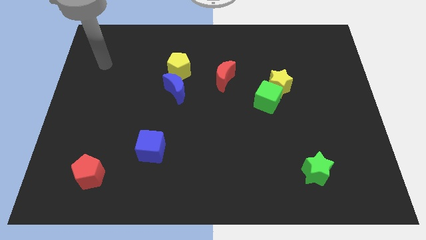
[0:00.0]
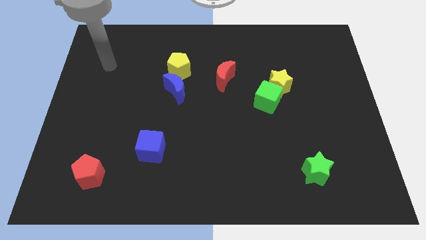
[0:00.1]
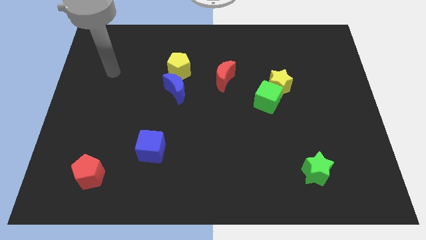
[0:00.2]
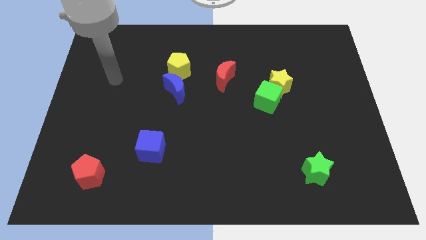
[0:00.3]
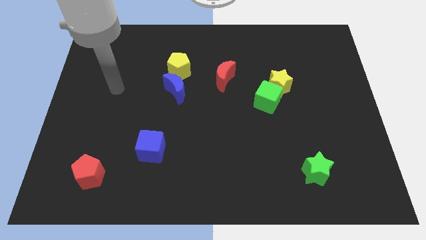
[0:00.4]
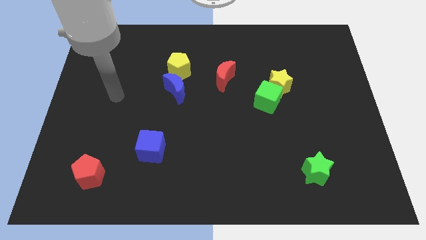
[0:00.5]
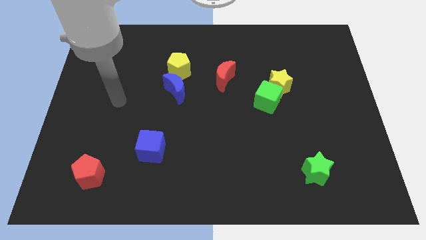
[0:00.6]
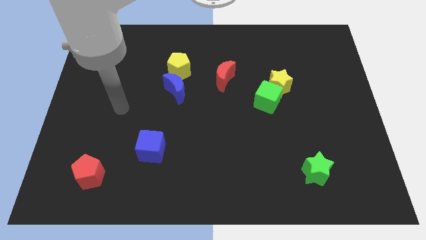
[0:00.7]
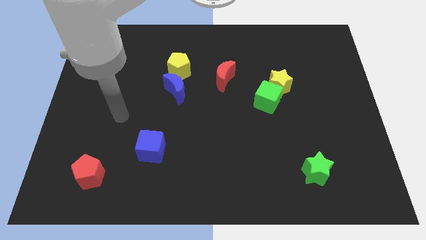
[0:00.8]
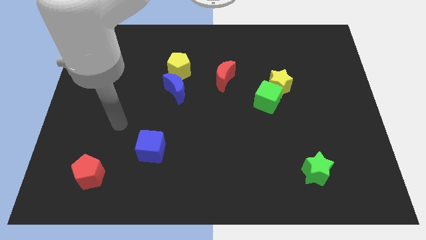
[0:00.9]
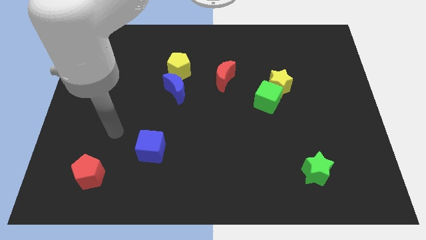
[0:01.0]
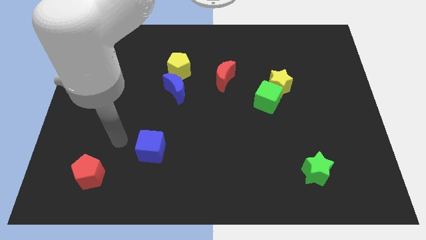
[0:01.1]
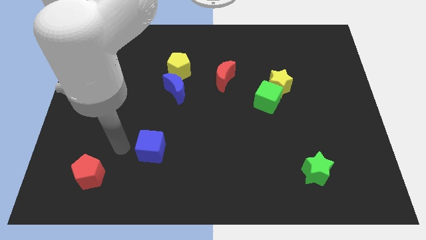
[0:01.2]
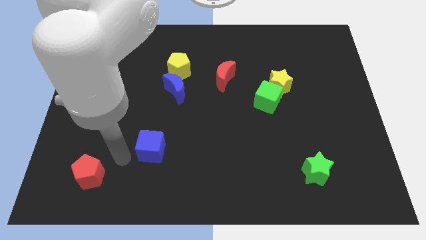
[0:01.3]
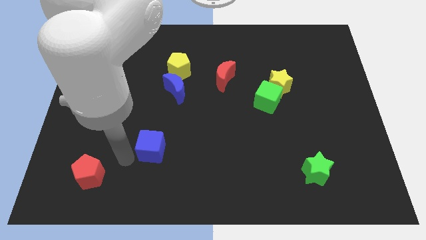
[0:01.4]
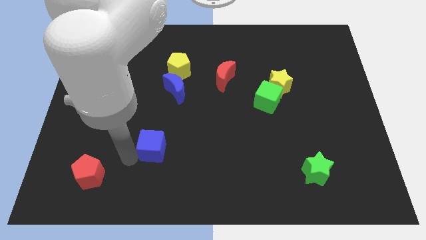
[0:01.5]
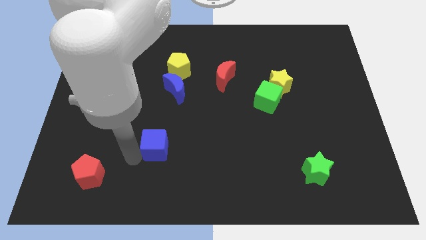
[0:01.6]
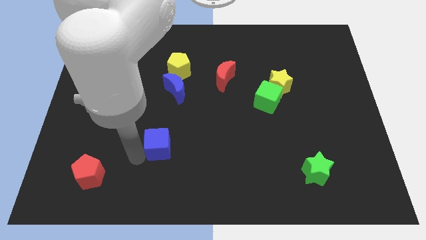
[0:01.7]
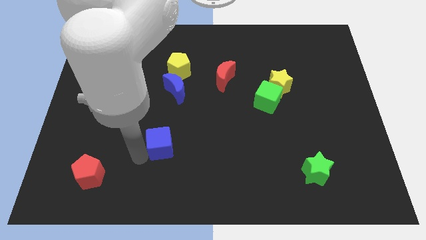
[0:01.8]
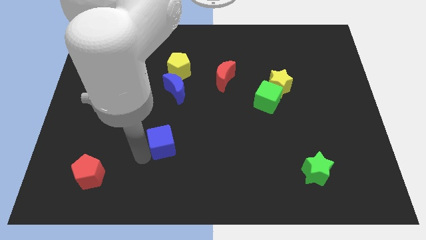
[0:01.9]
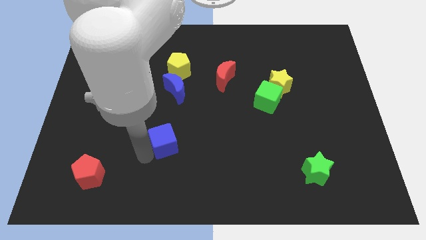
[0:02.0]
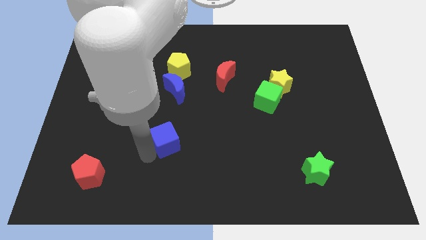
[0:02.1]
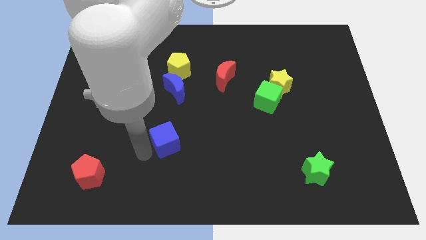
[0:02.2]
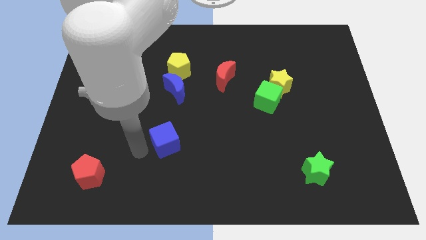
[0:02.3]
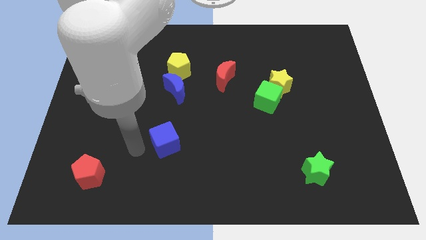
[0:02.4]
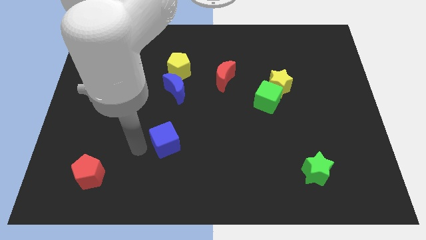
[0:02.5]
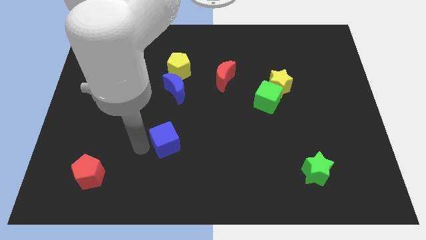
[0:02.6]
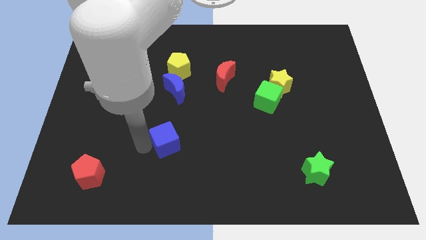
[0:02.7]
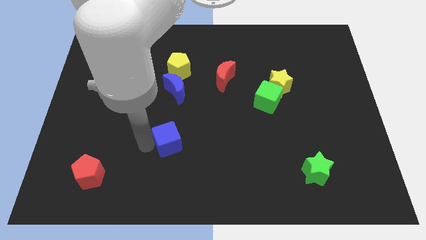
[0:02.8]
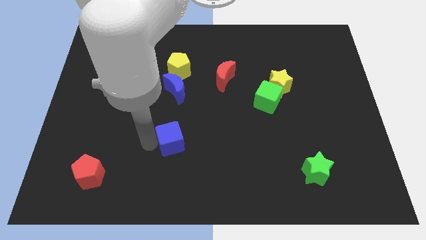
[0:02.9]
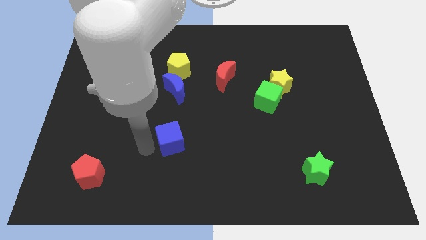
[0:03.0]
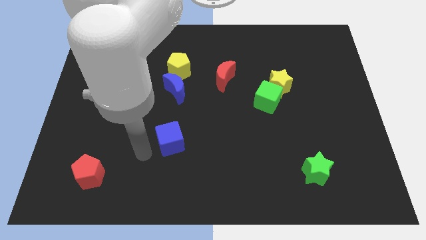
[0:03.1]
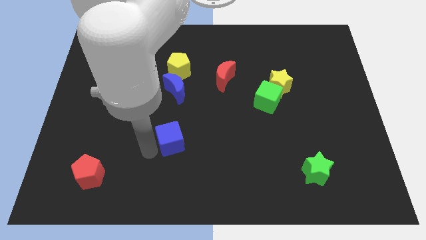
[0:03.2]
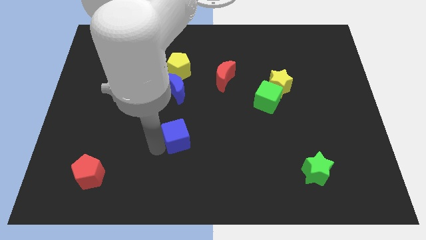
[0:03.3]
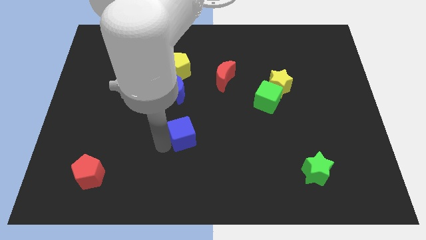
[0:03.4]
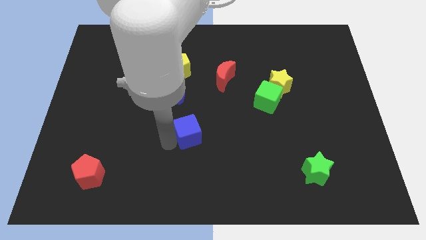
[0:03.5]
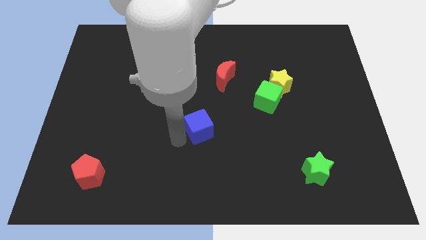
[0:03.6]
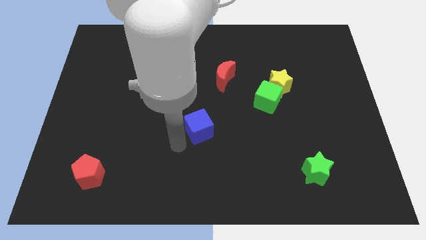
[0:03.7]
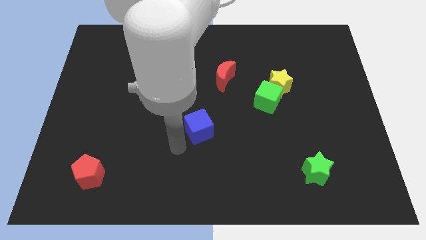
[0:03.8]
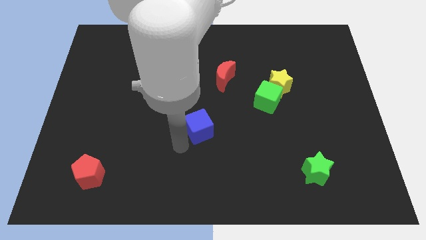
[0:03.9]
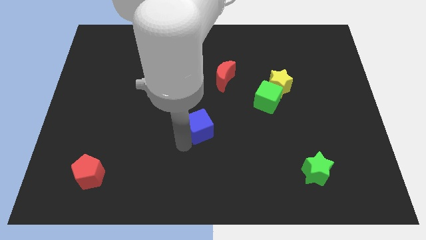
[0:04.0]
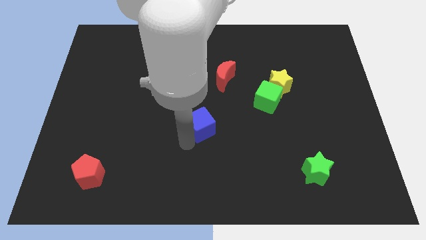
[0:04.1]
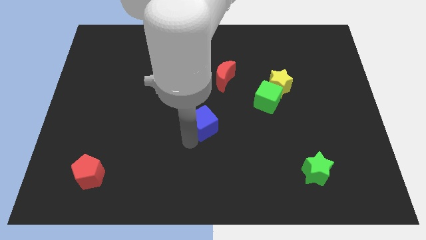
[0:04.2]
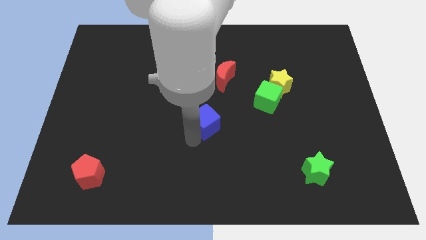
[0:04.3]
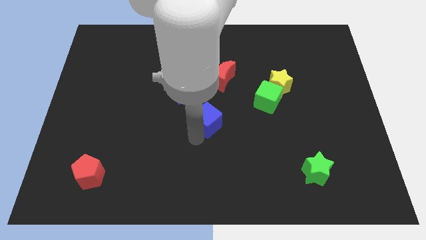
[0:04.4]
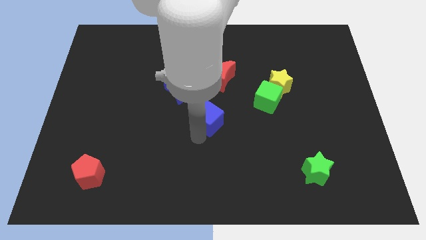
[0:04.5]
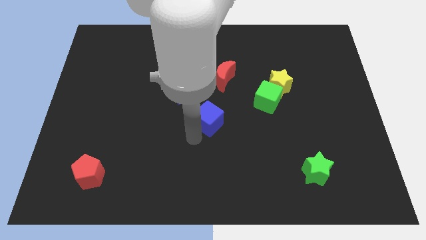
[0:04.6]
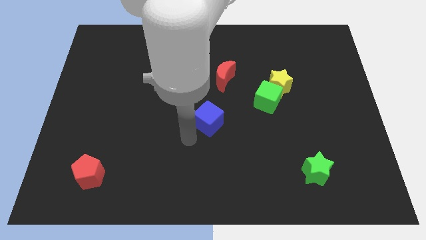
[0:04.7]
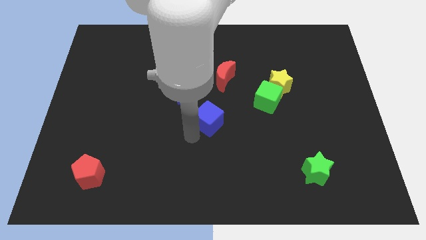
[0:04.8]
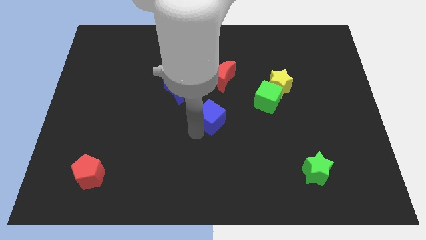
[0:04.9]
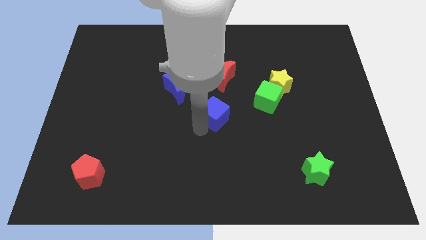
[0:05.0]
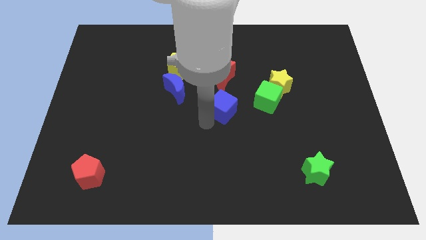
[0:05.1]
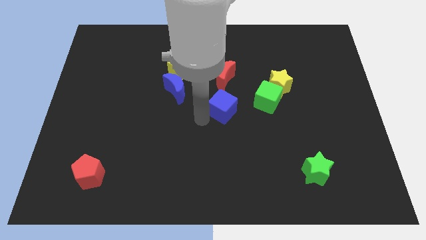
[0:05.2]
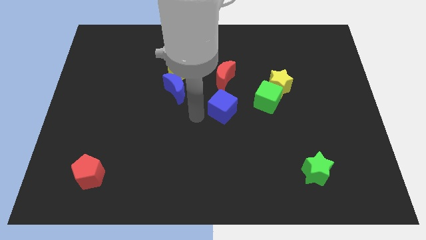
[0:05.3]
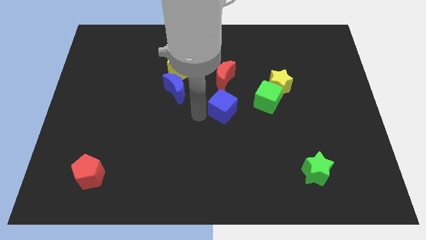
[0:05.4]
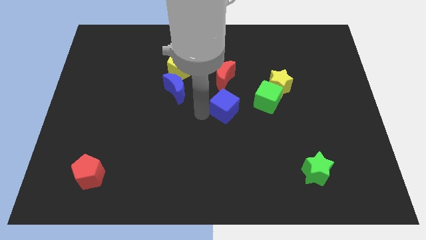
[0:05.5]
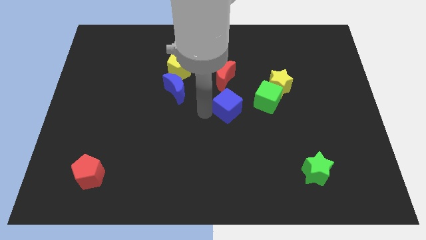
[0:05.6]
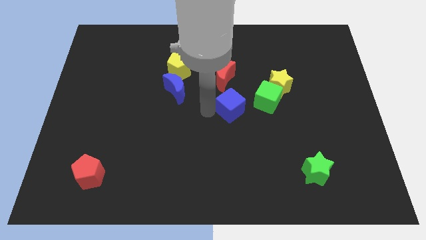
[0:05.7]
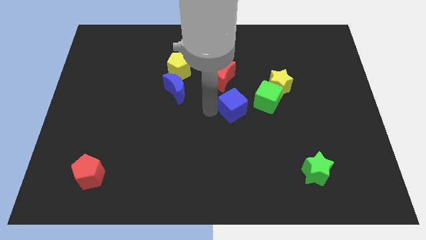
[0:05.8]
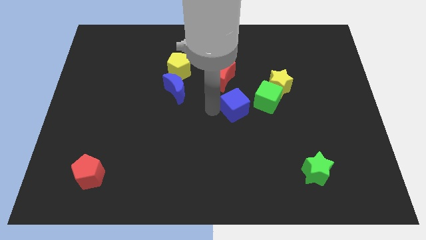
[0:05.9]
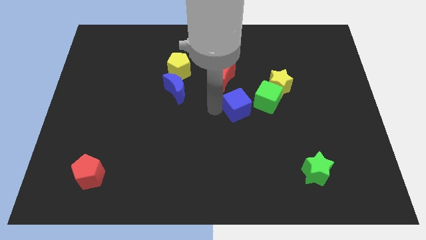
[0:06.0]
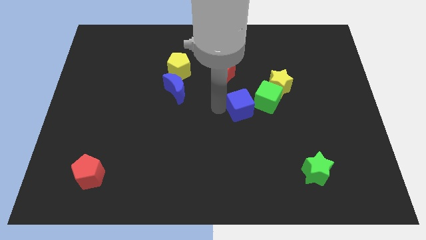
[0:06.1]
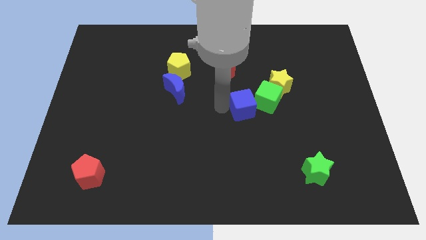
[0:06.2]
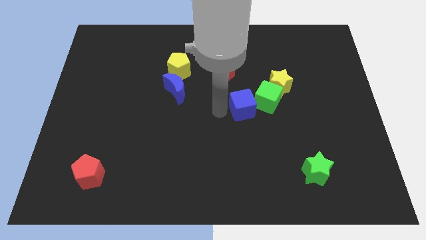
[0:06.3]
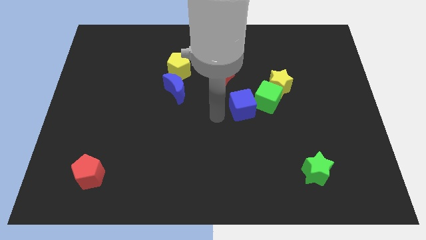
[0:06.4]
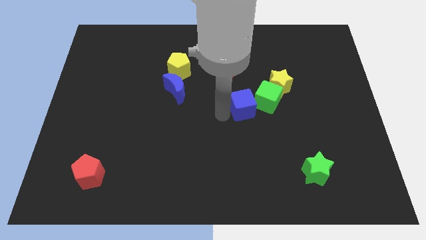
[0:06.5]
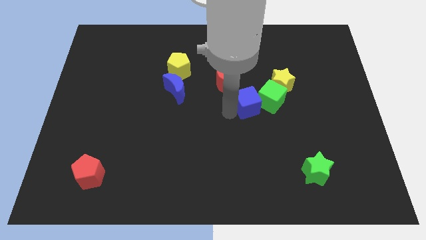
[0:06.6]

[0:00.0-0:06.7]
move the blue cube next to the green cube
